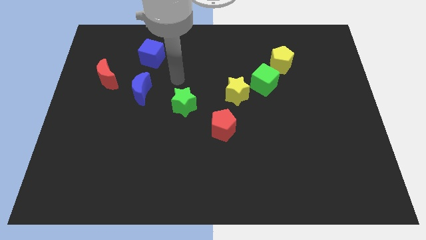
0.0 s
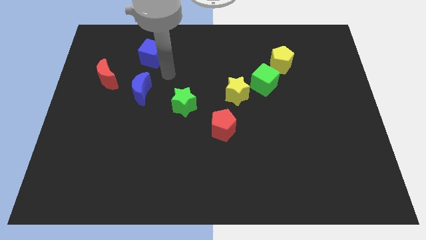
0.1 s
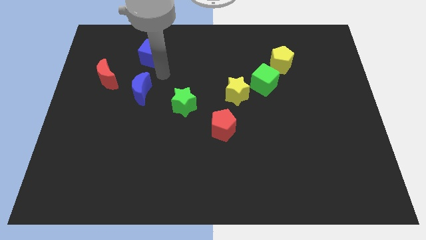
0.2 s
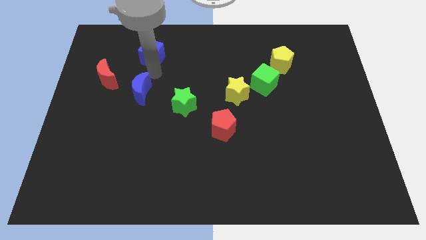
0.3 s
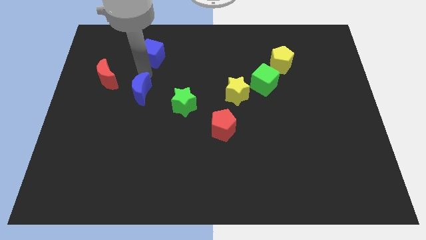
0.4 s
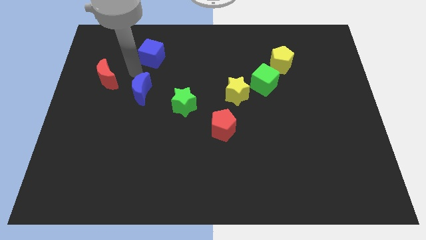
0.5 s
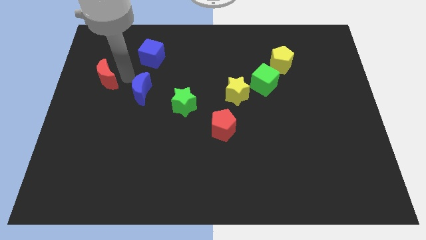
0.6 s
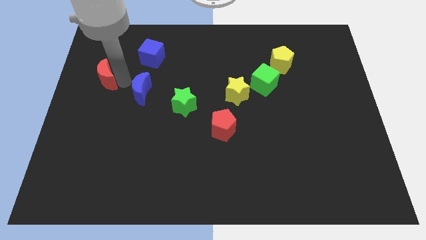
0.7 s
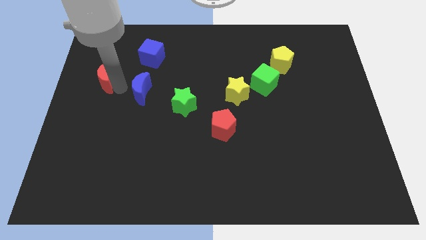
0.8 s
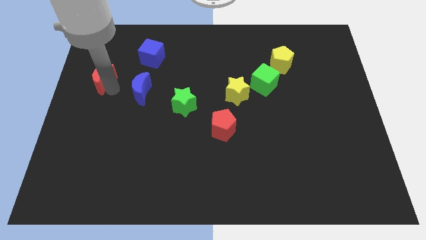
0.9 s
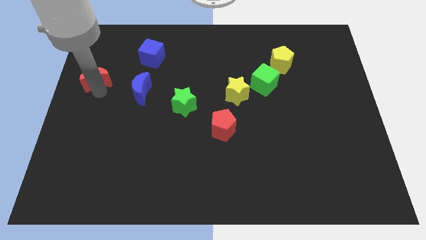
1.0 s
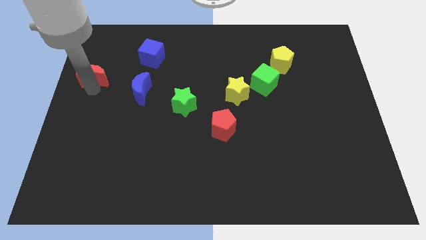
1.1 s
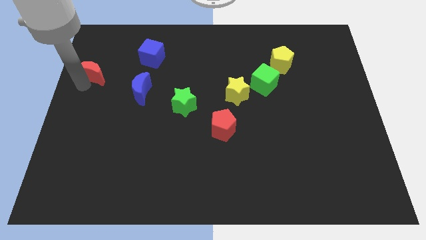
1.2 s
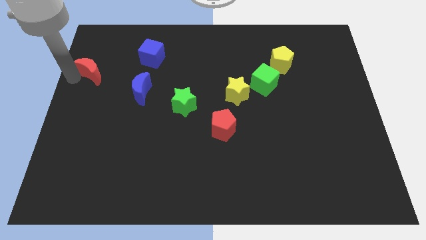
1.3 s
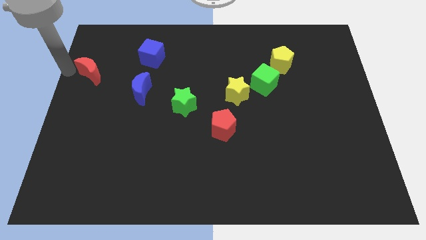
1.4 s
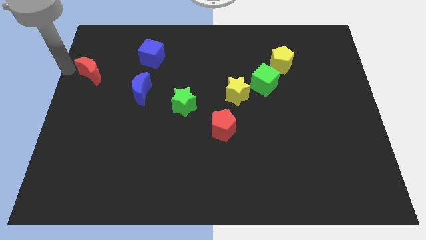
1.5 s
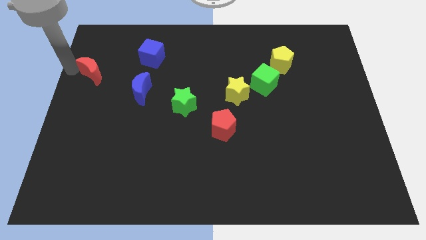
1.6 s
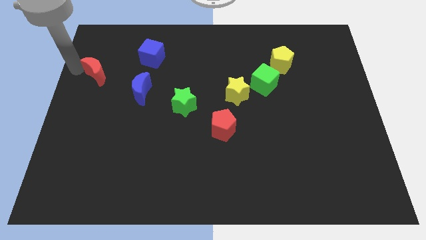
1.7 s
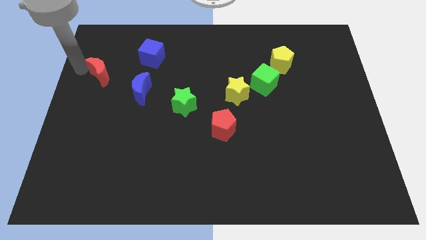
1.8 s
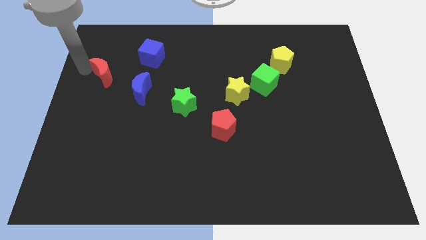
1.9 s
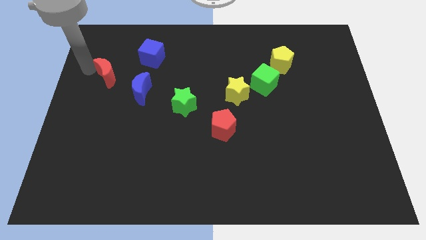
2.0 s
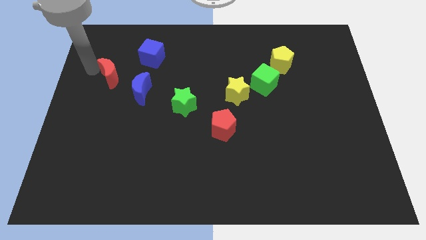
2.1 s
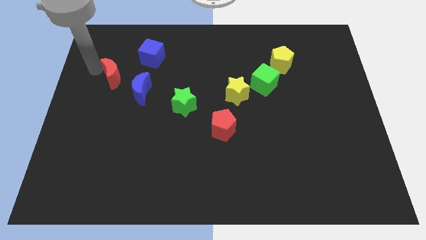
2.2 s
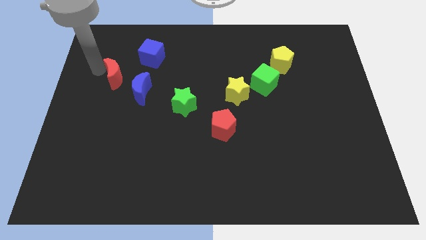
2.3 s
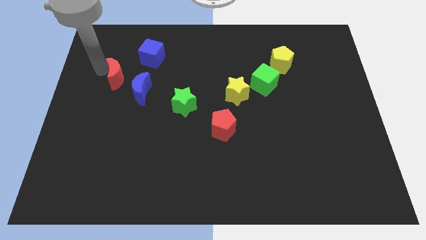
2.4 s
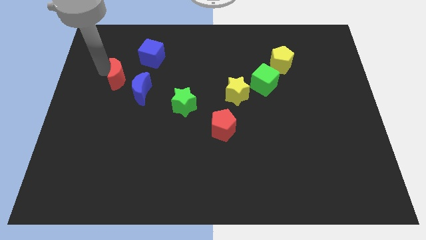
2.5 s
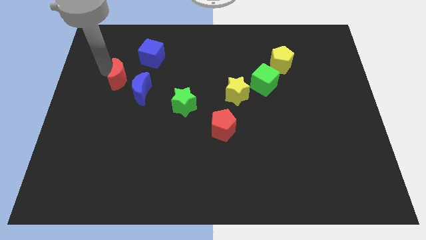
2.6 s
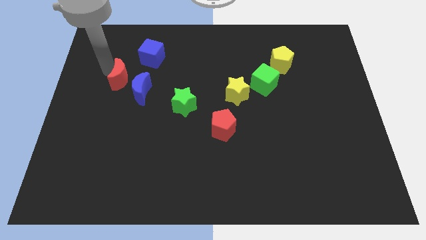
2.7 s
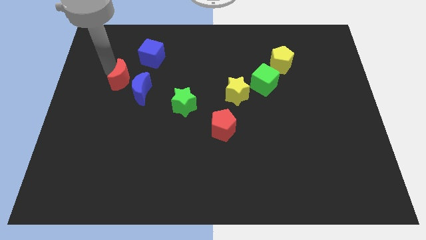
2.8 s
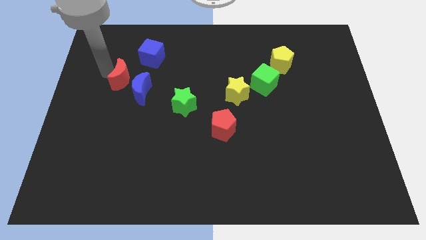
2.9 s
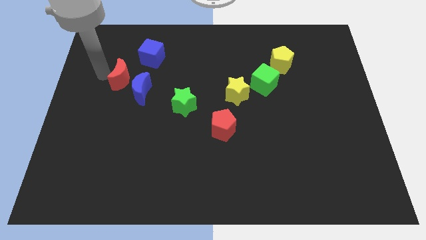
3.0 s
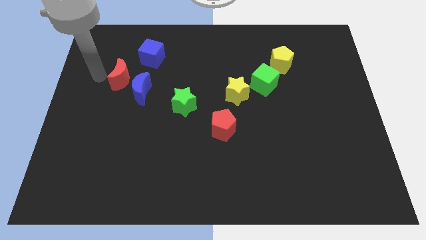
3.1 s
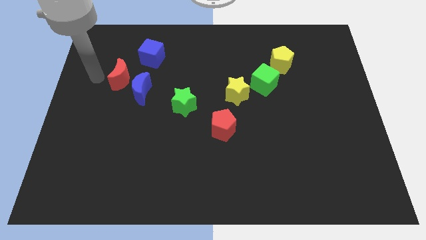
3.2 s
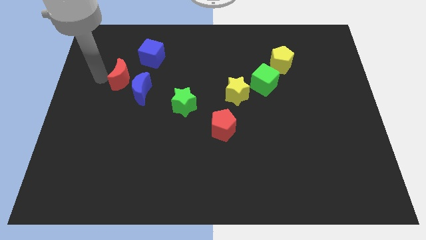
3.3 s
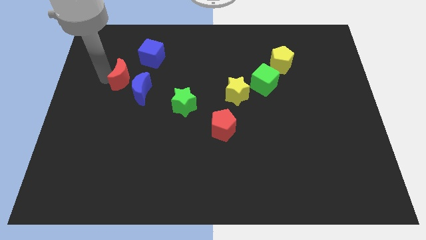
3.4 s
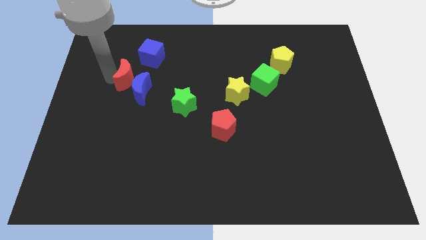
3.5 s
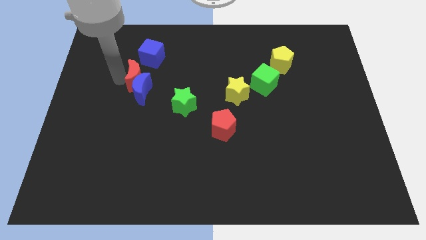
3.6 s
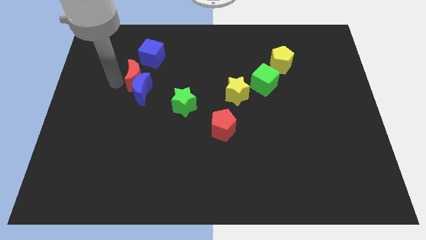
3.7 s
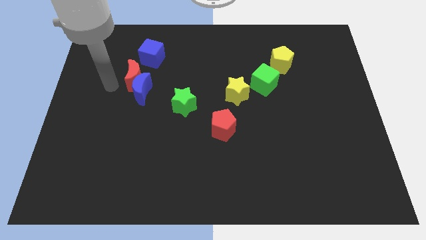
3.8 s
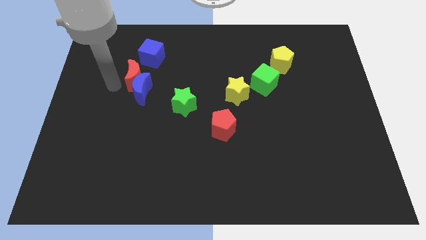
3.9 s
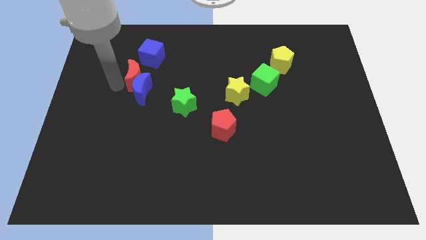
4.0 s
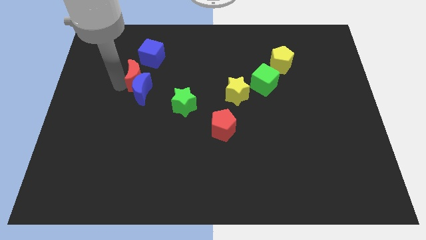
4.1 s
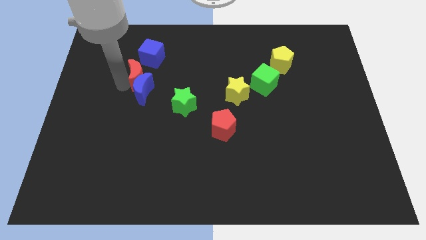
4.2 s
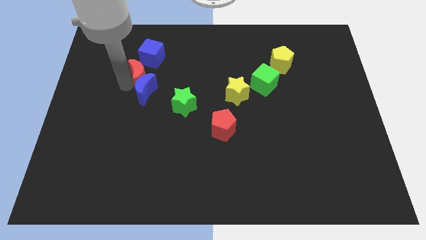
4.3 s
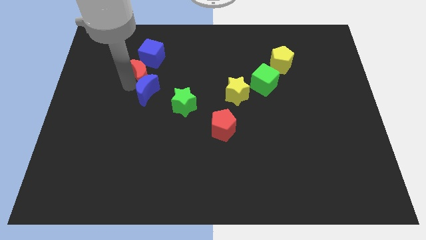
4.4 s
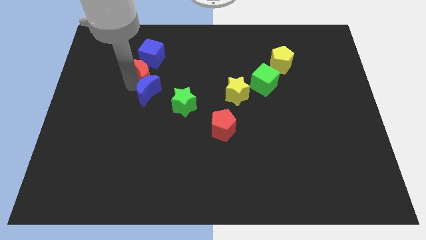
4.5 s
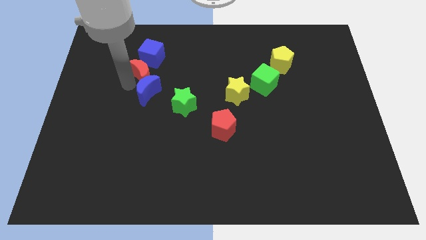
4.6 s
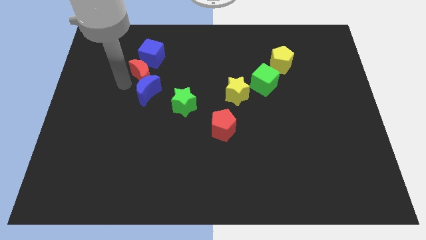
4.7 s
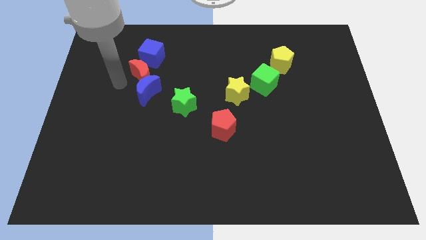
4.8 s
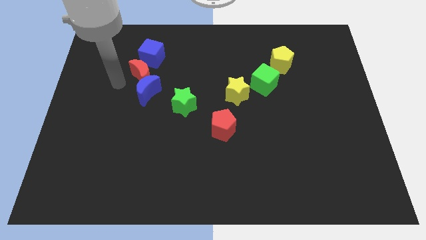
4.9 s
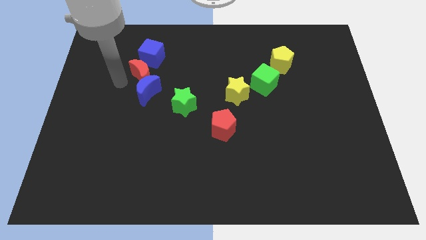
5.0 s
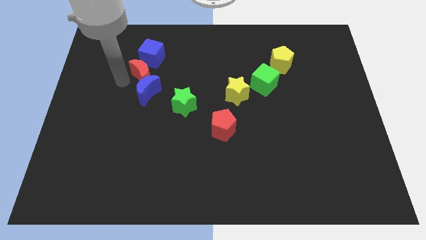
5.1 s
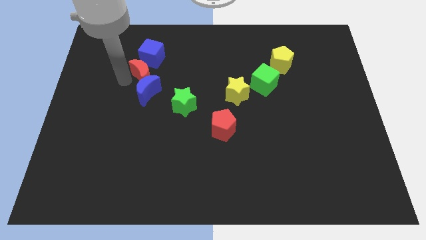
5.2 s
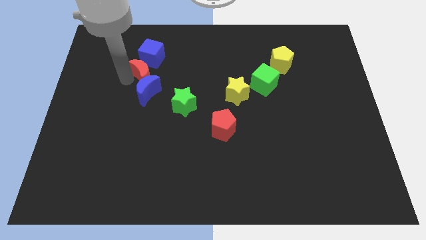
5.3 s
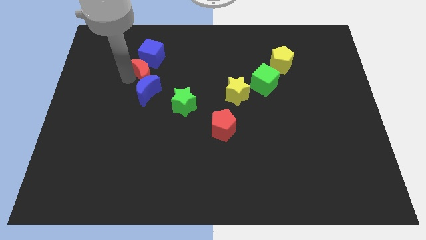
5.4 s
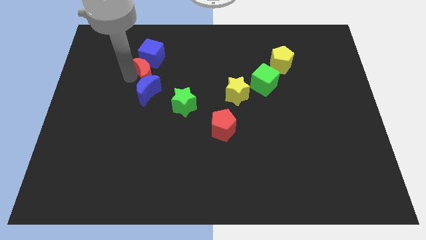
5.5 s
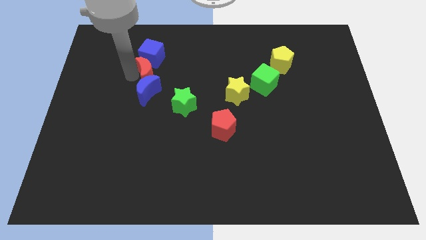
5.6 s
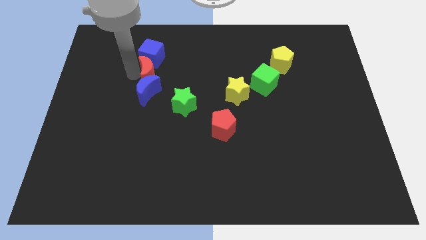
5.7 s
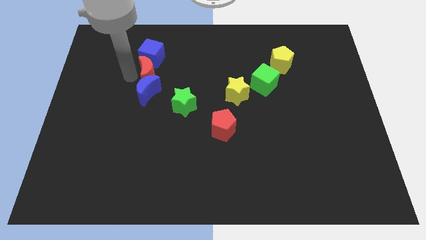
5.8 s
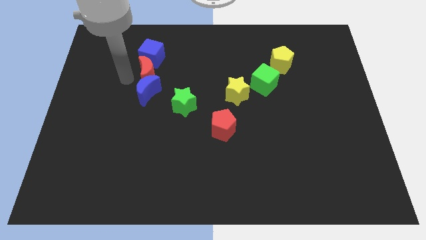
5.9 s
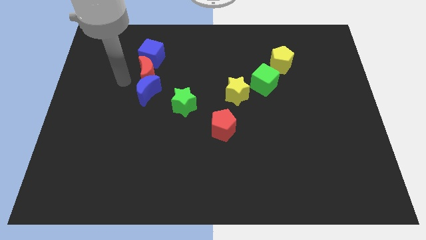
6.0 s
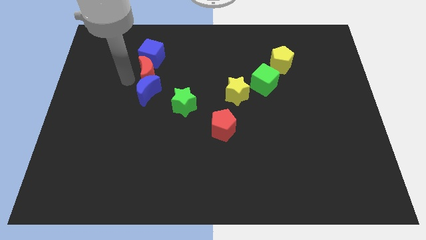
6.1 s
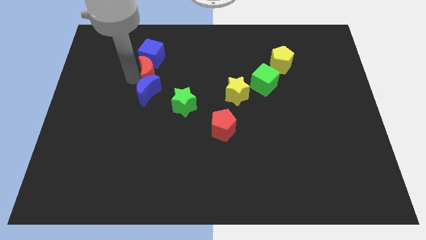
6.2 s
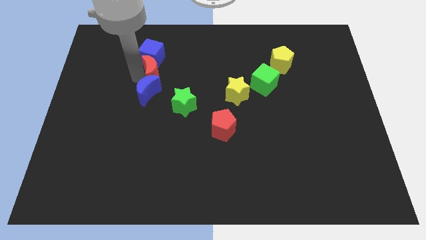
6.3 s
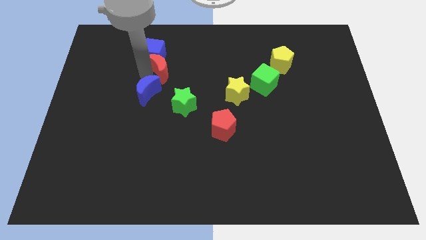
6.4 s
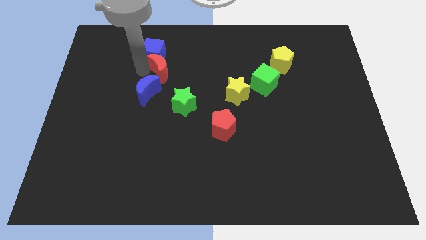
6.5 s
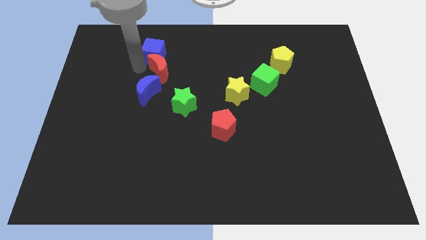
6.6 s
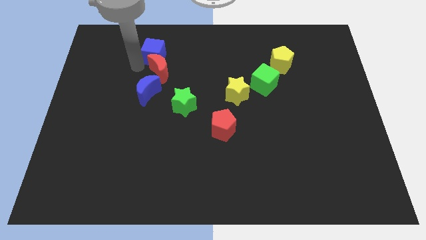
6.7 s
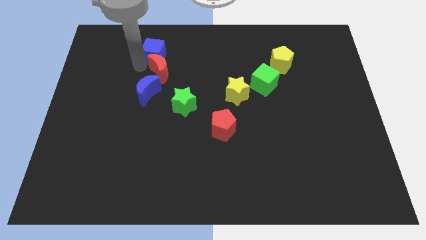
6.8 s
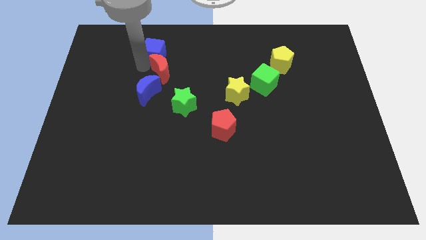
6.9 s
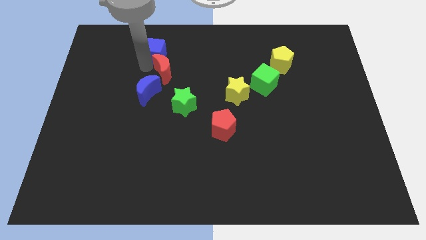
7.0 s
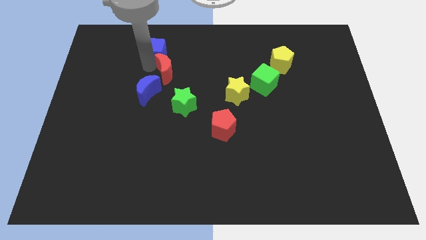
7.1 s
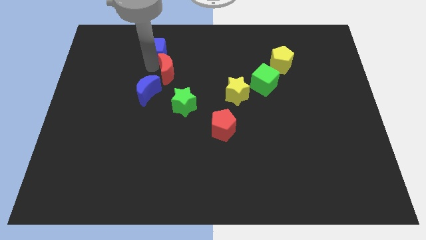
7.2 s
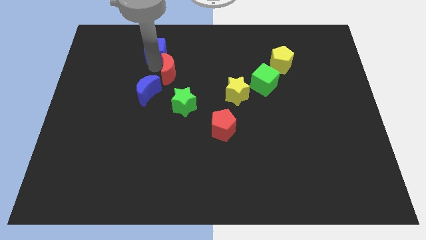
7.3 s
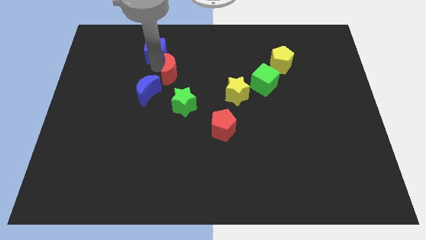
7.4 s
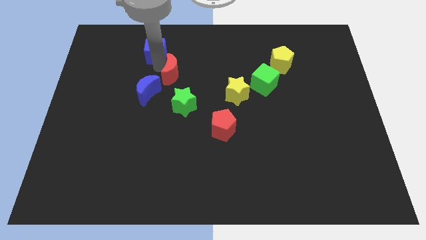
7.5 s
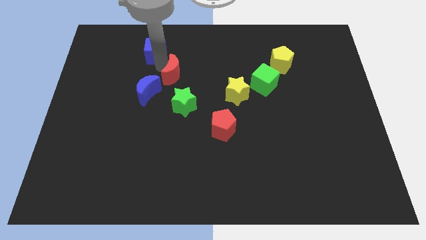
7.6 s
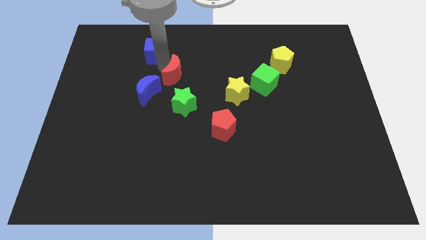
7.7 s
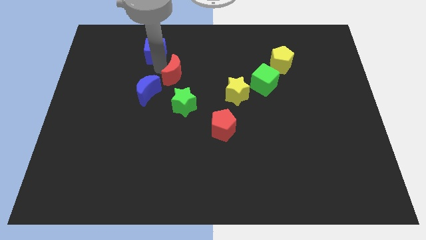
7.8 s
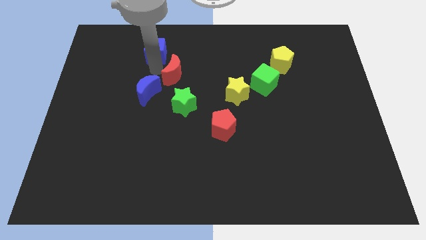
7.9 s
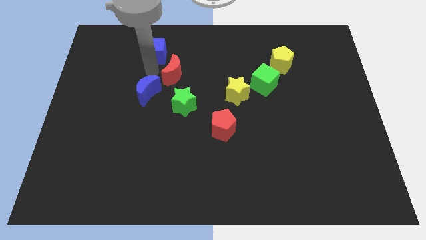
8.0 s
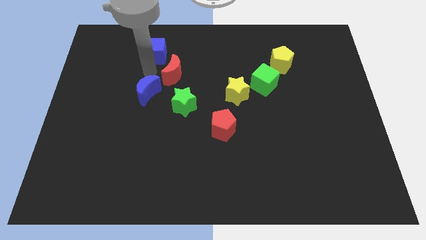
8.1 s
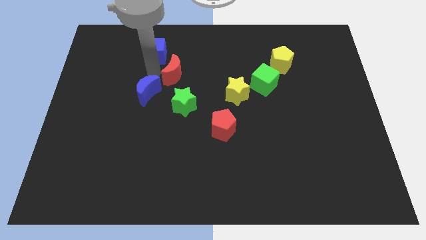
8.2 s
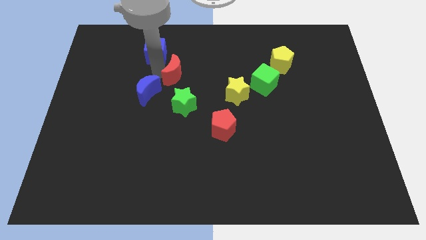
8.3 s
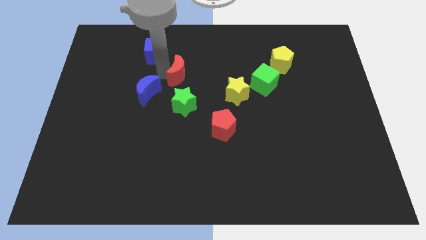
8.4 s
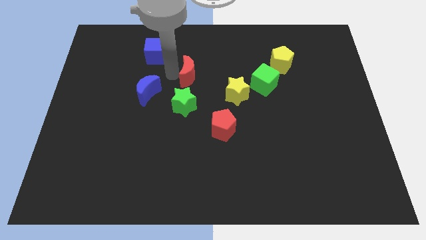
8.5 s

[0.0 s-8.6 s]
slide the red moon to the right
